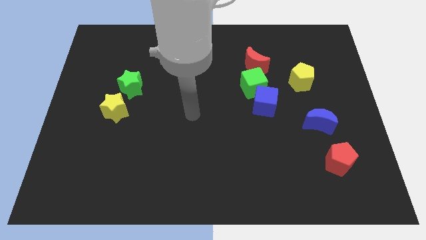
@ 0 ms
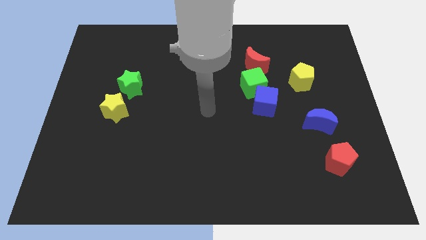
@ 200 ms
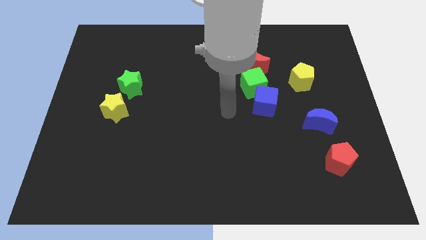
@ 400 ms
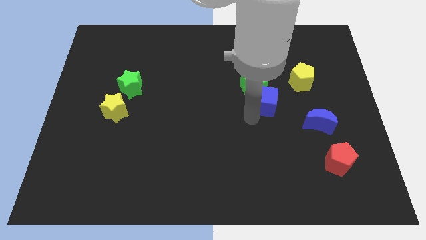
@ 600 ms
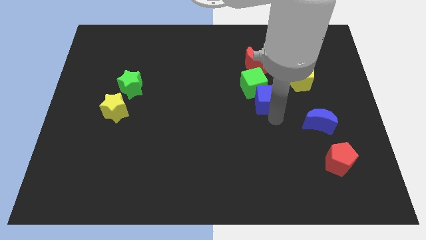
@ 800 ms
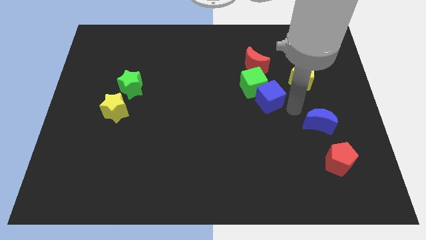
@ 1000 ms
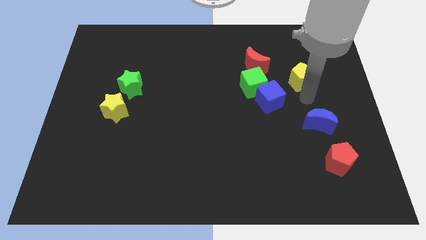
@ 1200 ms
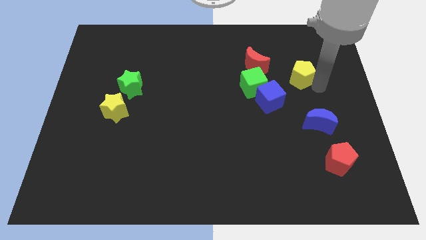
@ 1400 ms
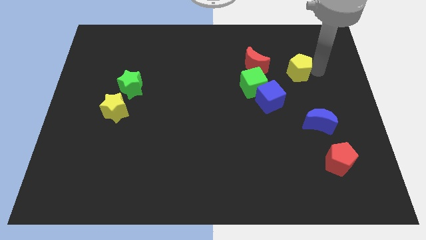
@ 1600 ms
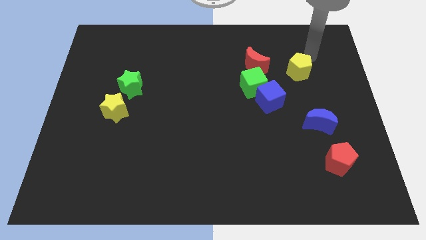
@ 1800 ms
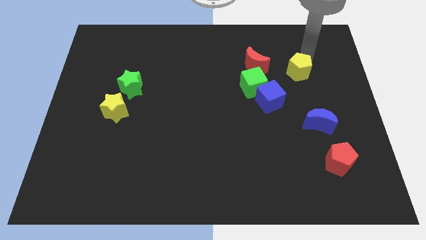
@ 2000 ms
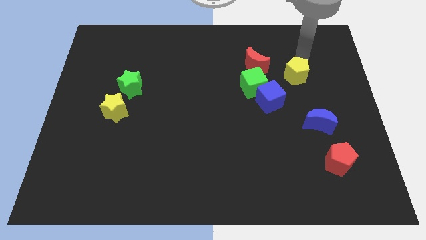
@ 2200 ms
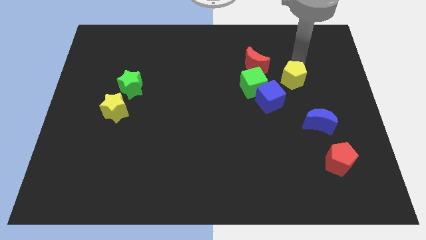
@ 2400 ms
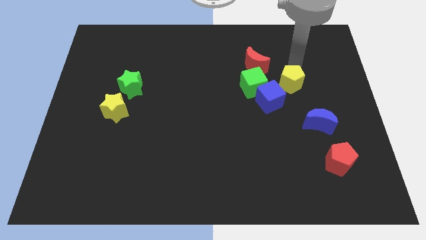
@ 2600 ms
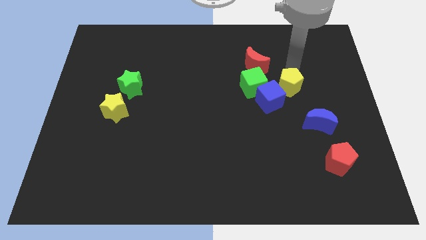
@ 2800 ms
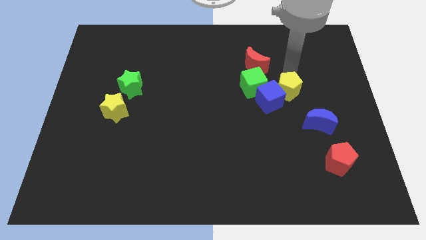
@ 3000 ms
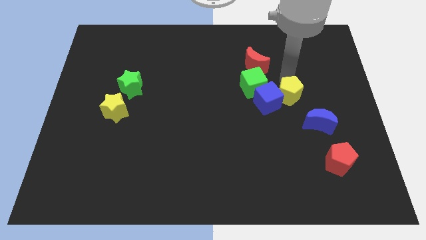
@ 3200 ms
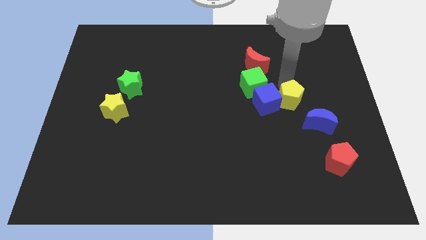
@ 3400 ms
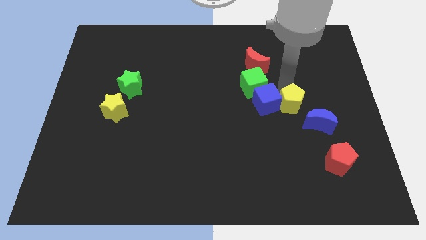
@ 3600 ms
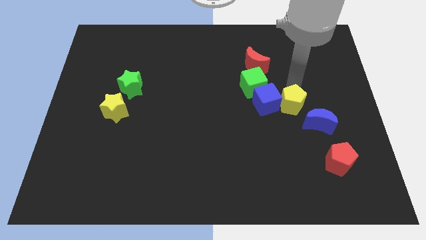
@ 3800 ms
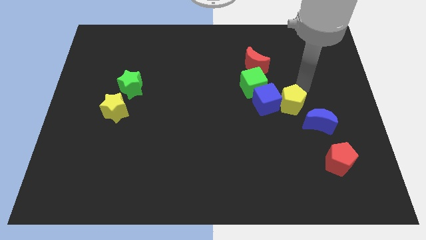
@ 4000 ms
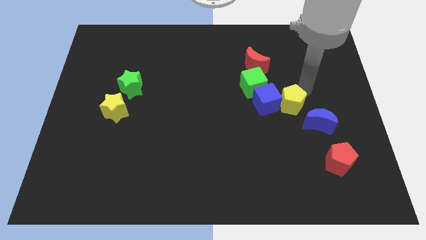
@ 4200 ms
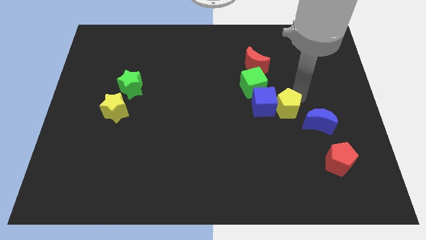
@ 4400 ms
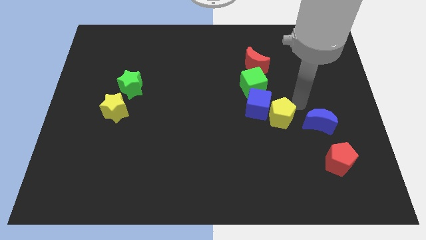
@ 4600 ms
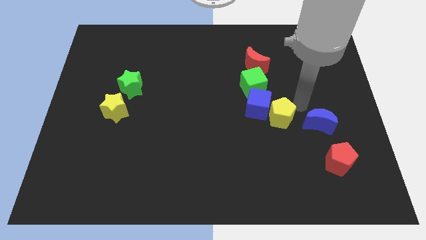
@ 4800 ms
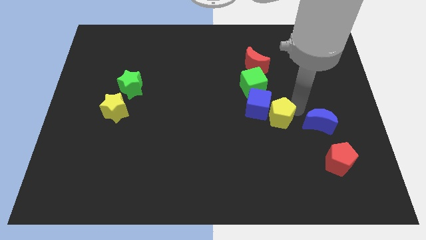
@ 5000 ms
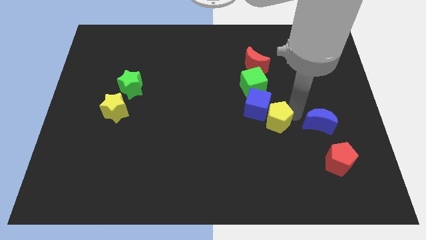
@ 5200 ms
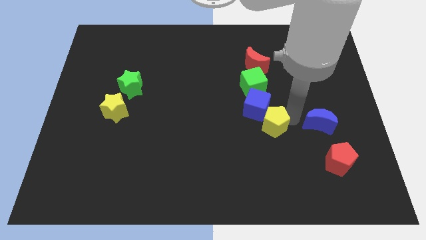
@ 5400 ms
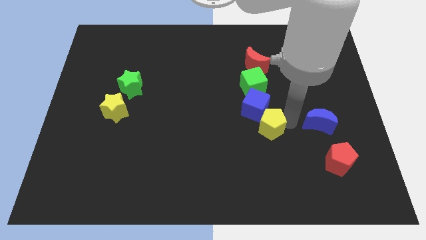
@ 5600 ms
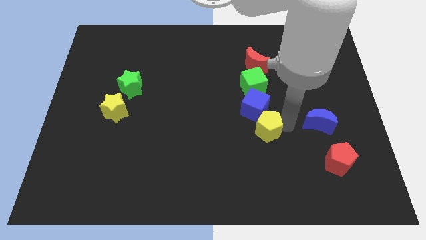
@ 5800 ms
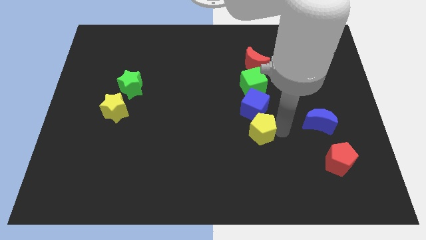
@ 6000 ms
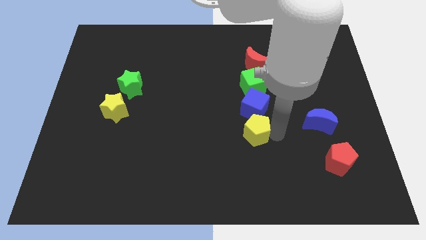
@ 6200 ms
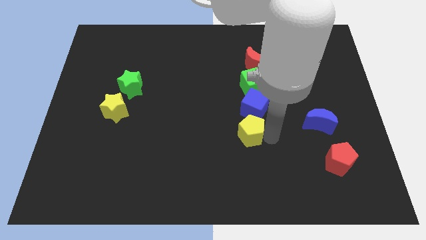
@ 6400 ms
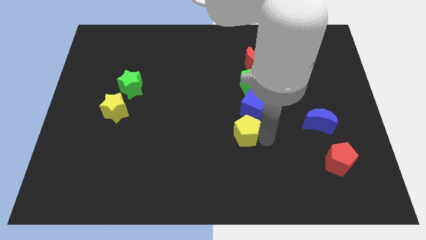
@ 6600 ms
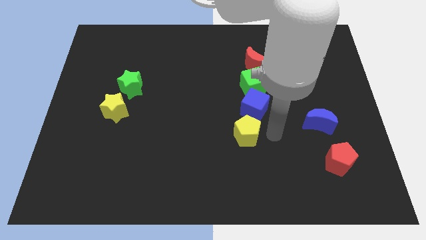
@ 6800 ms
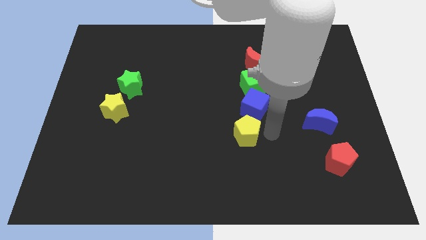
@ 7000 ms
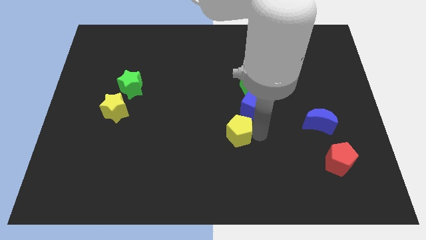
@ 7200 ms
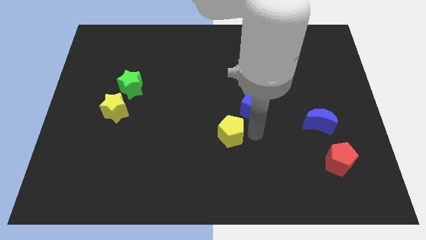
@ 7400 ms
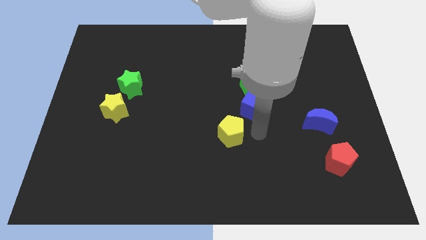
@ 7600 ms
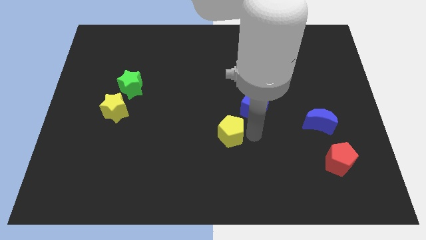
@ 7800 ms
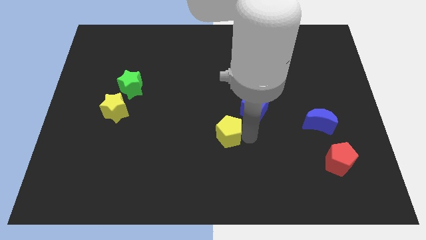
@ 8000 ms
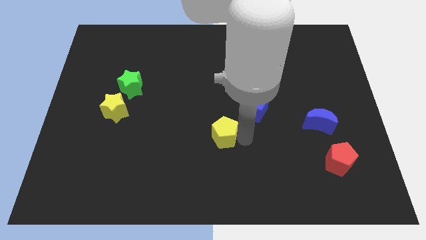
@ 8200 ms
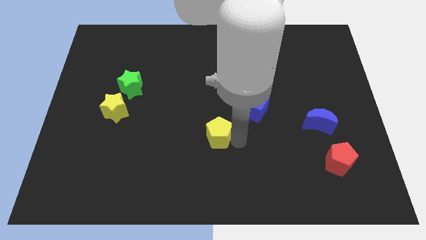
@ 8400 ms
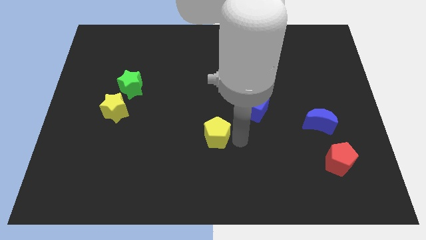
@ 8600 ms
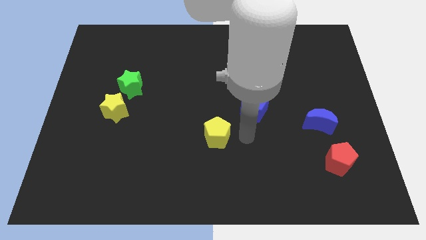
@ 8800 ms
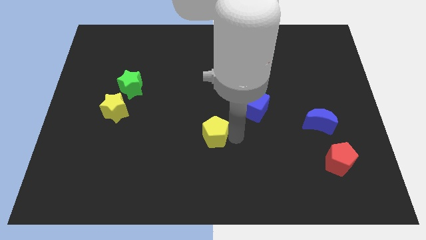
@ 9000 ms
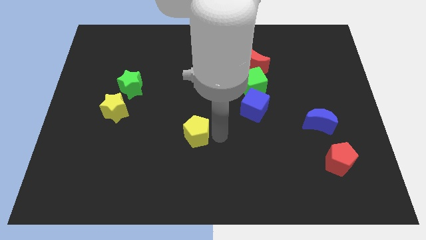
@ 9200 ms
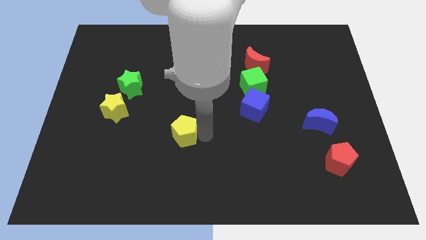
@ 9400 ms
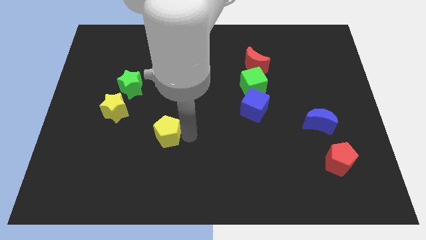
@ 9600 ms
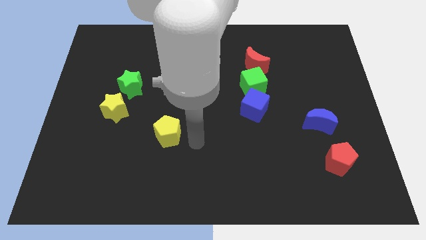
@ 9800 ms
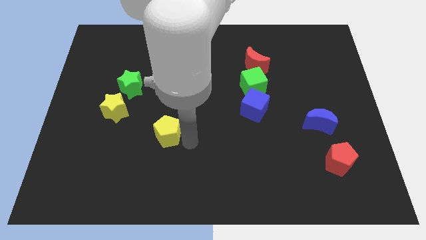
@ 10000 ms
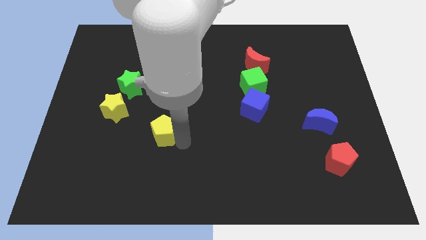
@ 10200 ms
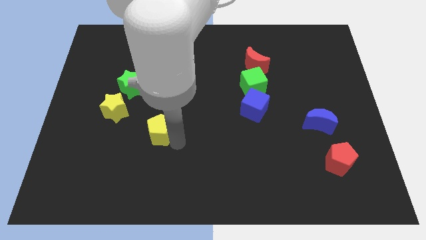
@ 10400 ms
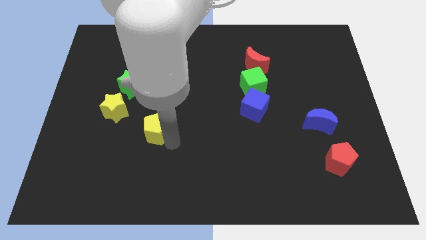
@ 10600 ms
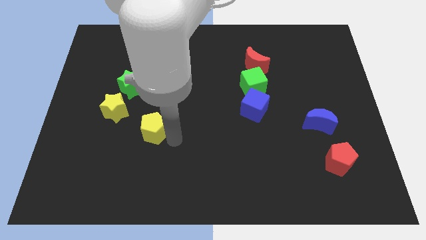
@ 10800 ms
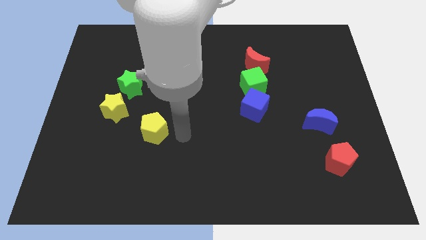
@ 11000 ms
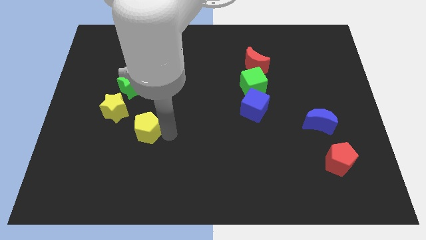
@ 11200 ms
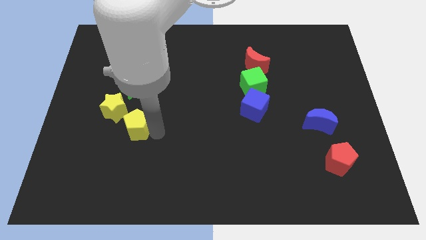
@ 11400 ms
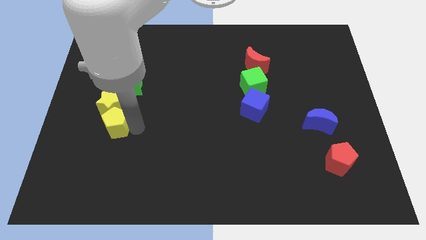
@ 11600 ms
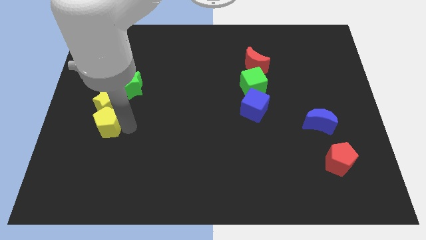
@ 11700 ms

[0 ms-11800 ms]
push the yellow pentagon to the bottom left side of the yellow star
